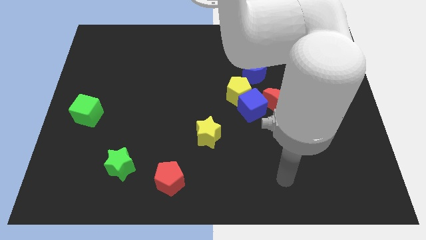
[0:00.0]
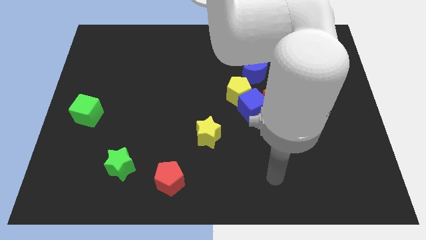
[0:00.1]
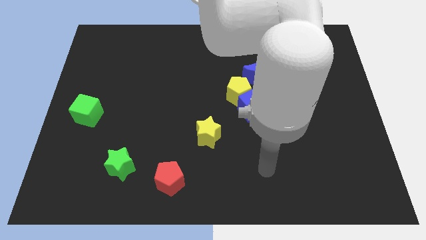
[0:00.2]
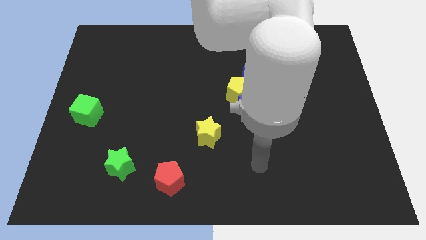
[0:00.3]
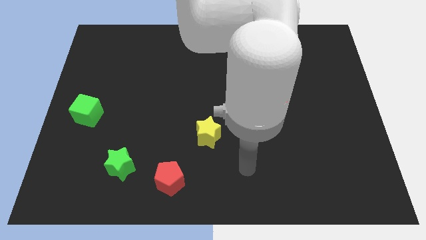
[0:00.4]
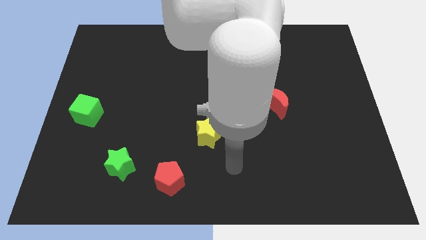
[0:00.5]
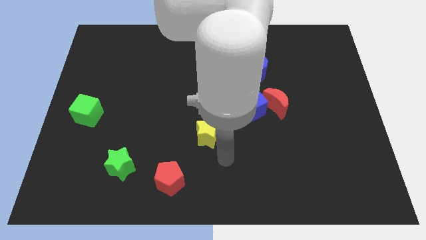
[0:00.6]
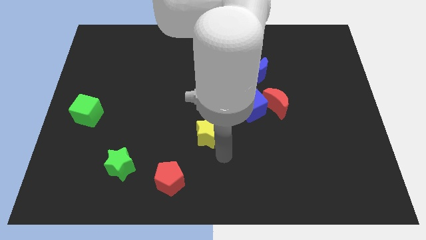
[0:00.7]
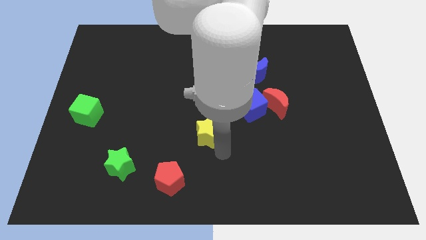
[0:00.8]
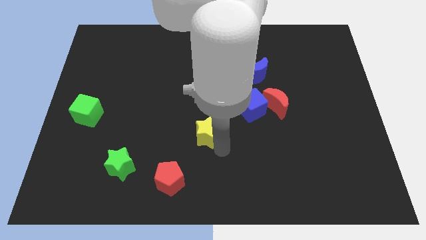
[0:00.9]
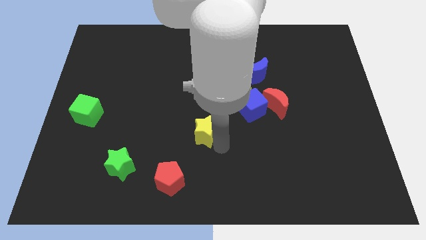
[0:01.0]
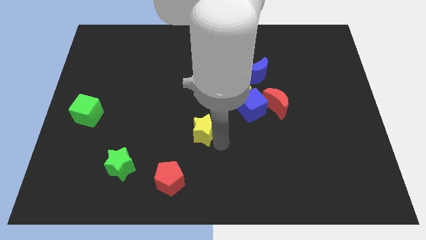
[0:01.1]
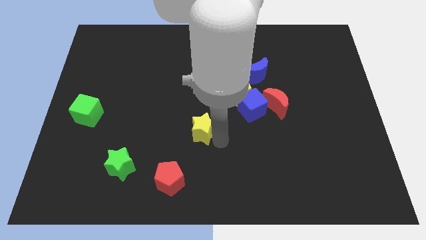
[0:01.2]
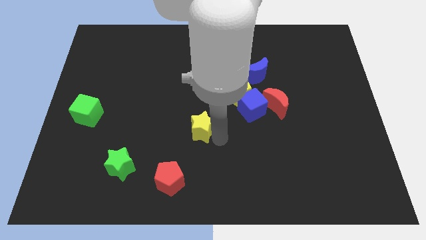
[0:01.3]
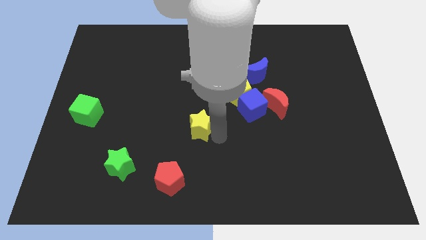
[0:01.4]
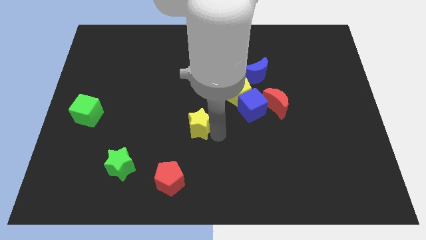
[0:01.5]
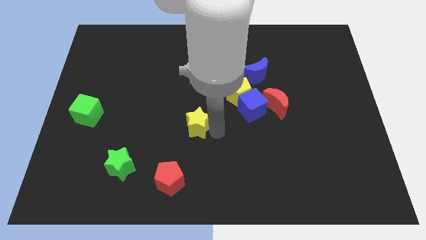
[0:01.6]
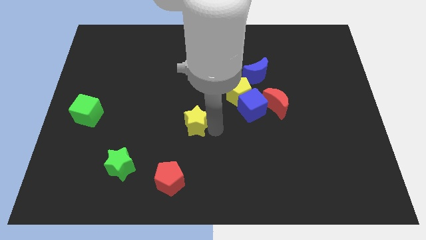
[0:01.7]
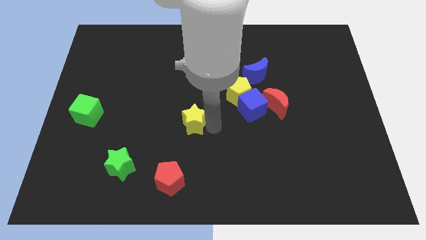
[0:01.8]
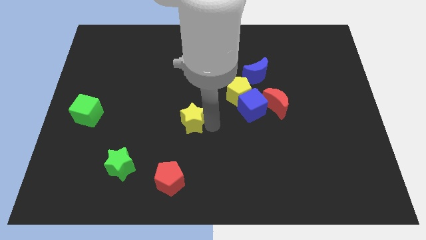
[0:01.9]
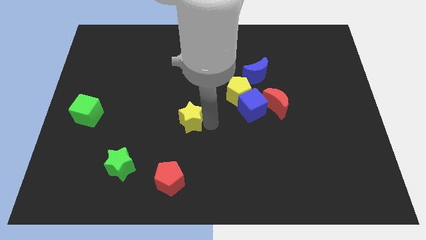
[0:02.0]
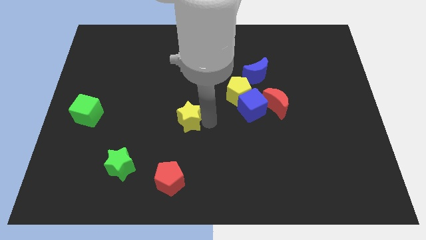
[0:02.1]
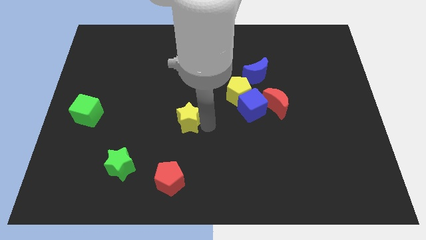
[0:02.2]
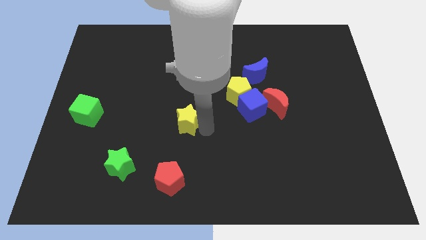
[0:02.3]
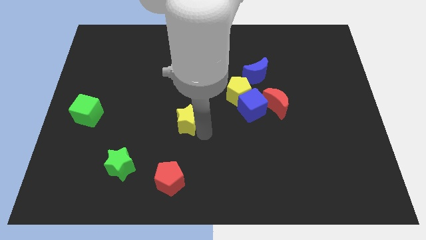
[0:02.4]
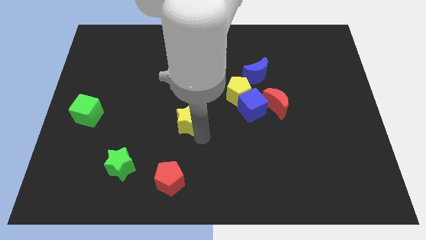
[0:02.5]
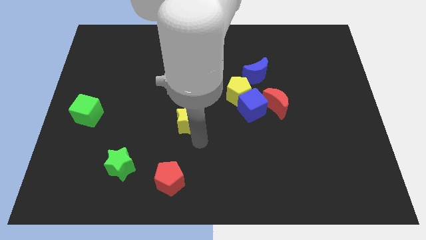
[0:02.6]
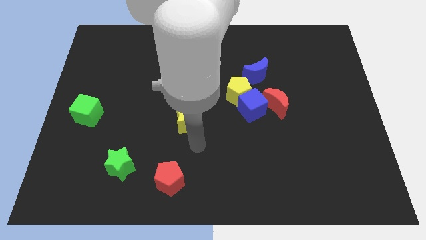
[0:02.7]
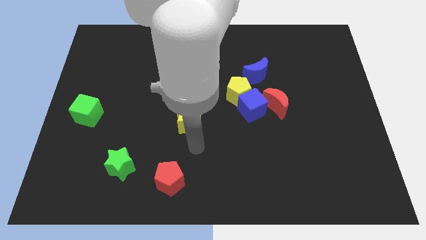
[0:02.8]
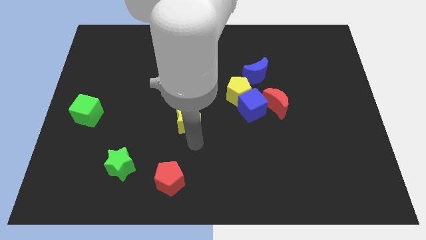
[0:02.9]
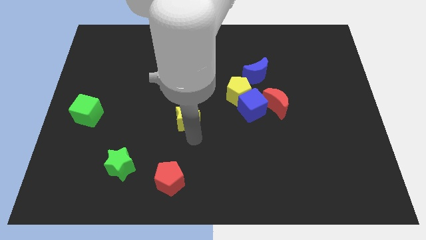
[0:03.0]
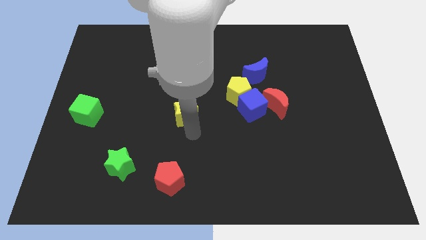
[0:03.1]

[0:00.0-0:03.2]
move the yellow star a little bit upwards and then left

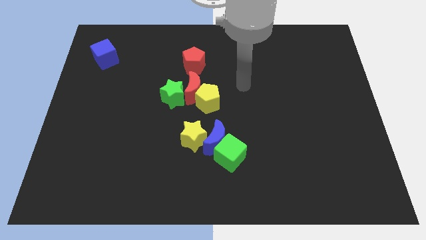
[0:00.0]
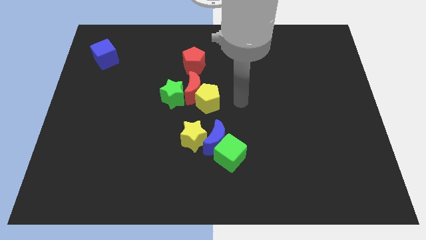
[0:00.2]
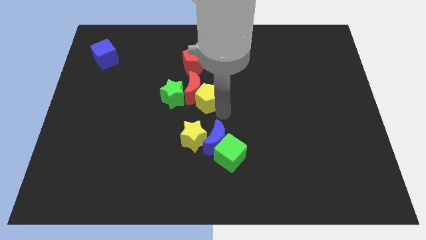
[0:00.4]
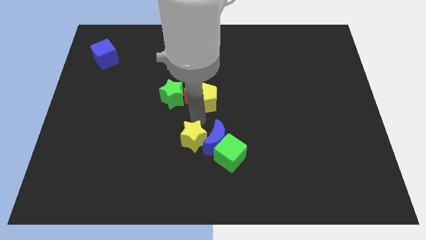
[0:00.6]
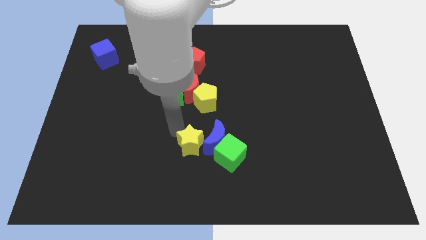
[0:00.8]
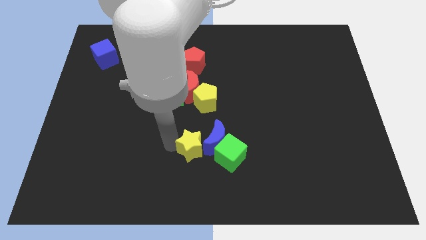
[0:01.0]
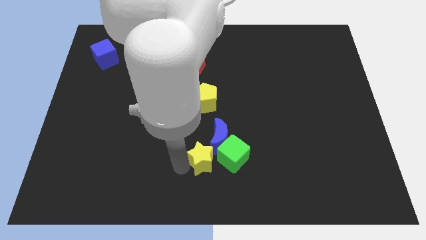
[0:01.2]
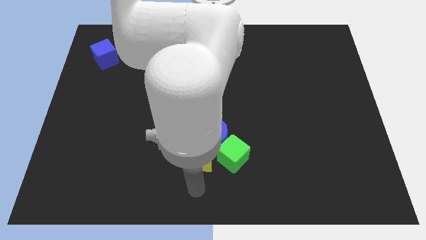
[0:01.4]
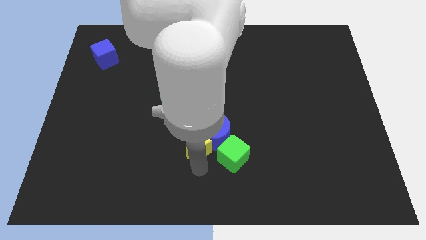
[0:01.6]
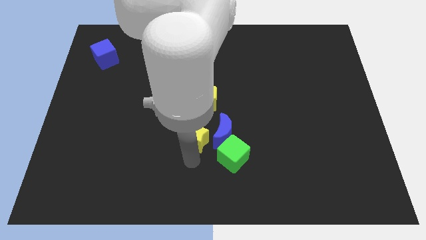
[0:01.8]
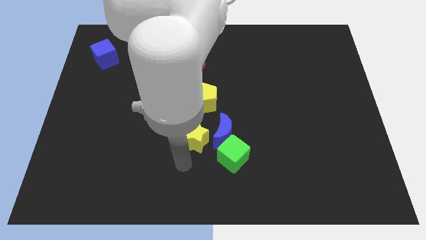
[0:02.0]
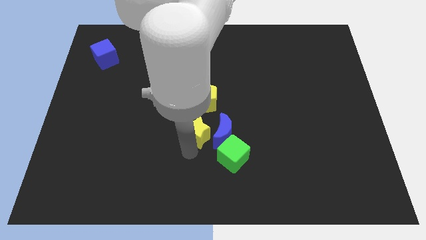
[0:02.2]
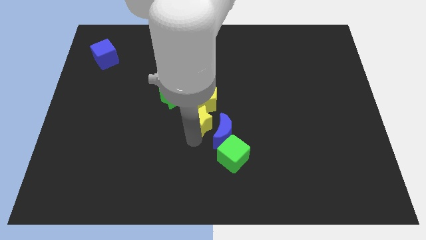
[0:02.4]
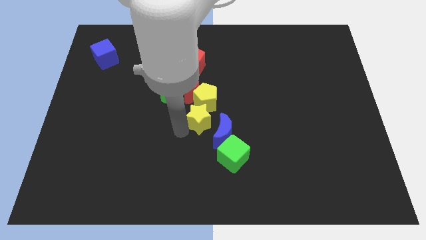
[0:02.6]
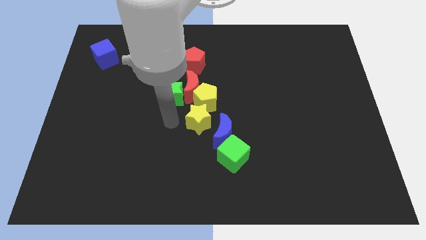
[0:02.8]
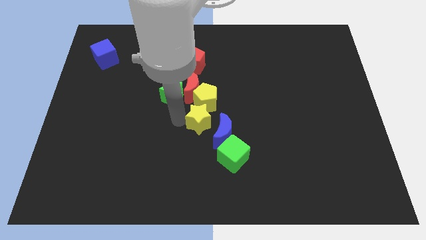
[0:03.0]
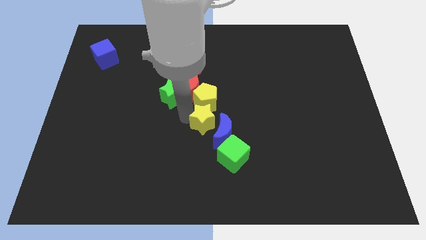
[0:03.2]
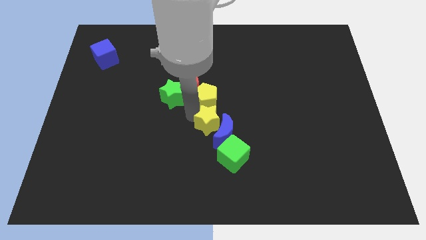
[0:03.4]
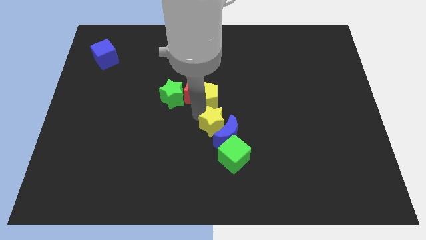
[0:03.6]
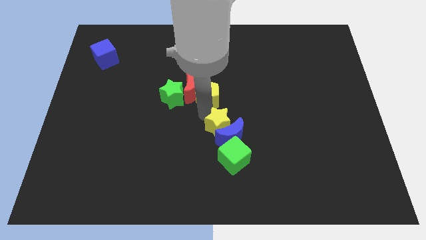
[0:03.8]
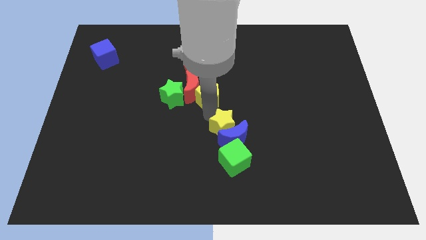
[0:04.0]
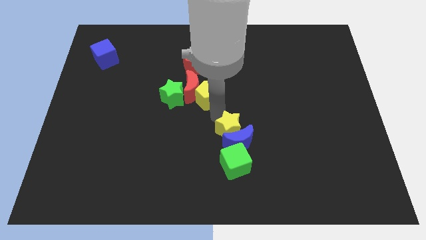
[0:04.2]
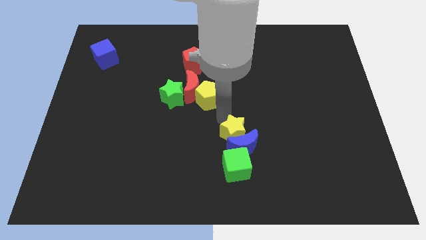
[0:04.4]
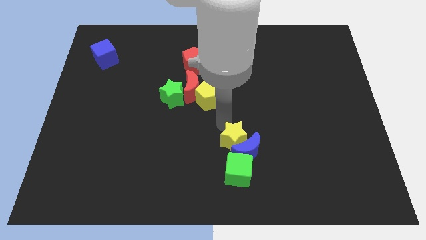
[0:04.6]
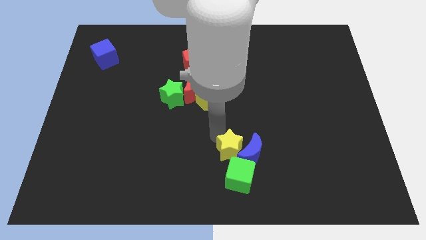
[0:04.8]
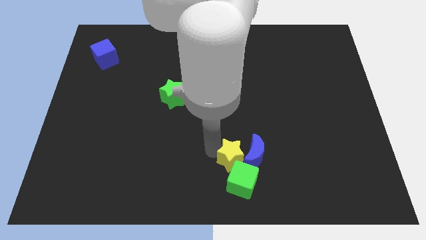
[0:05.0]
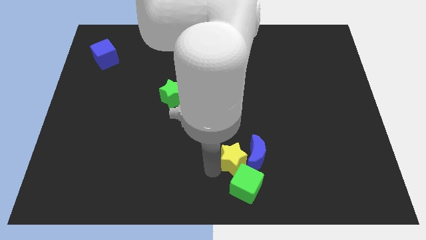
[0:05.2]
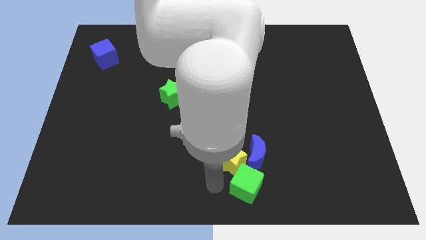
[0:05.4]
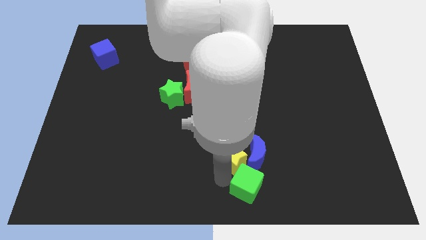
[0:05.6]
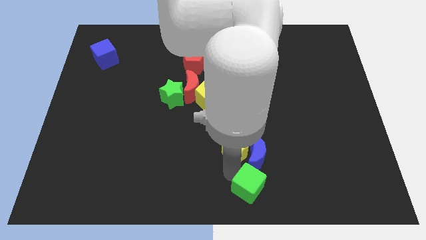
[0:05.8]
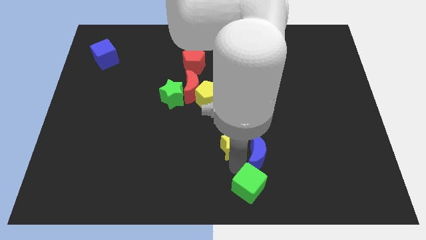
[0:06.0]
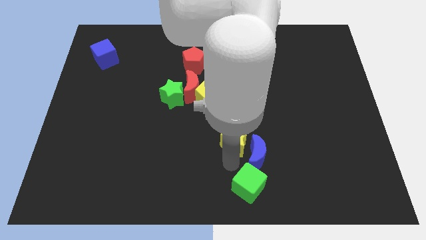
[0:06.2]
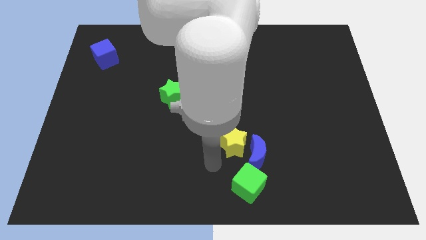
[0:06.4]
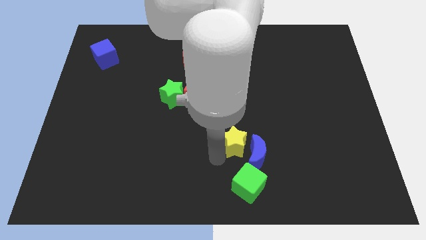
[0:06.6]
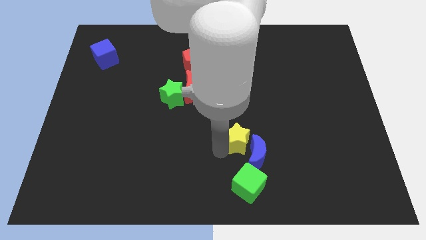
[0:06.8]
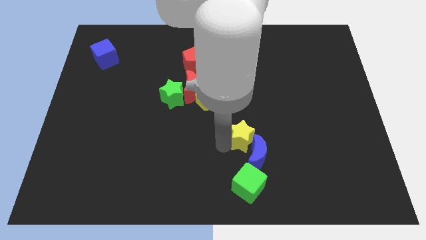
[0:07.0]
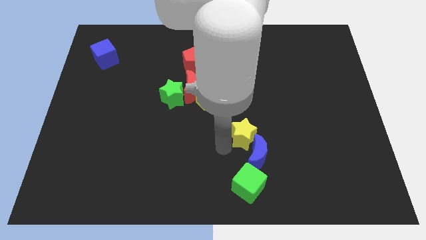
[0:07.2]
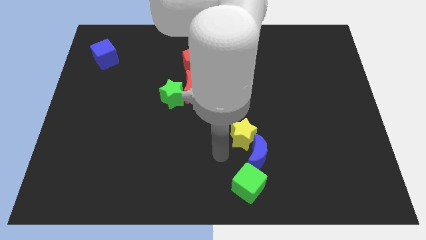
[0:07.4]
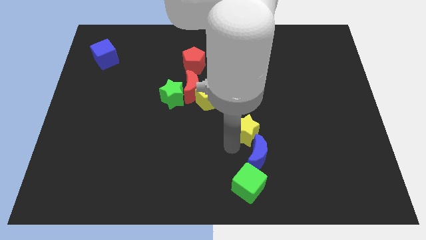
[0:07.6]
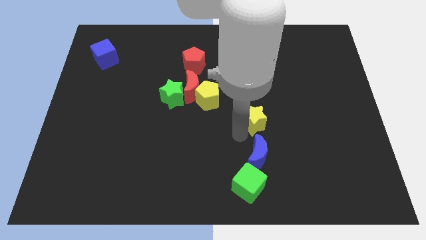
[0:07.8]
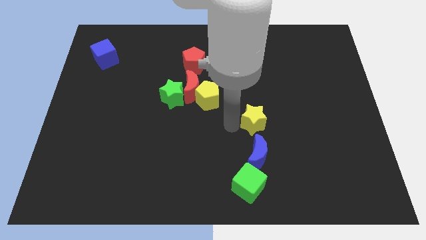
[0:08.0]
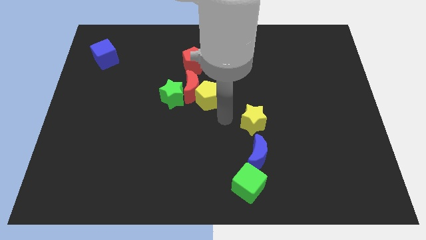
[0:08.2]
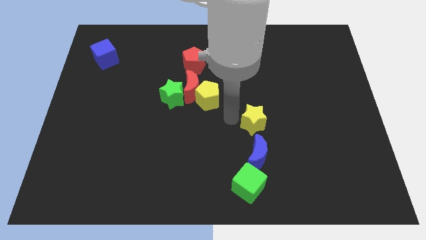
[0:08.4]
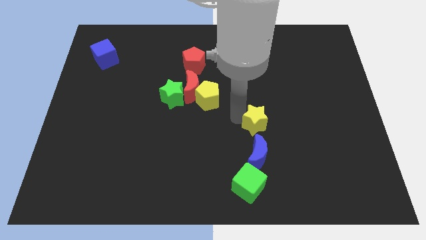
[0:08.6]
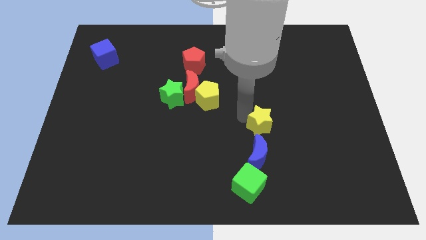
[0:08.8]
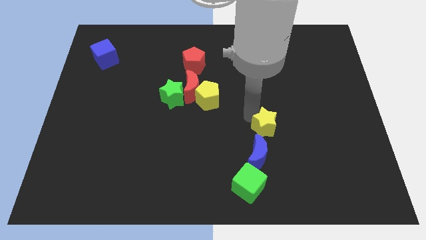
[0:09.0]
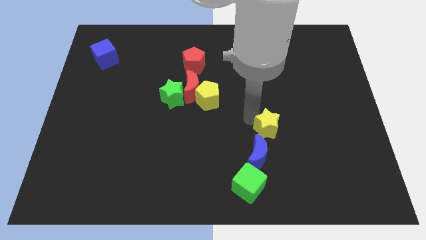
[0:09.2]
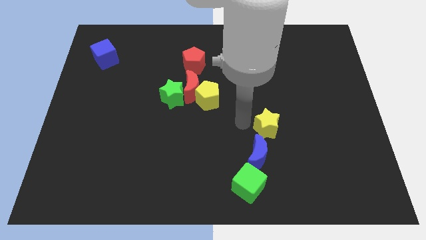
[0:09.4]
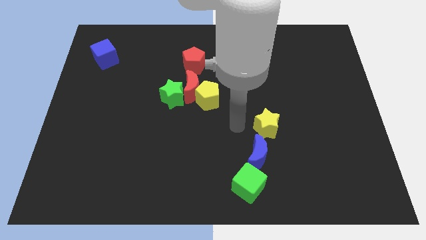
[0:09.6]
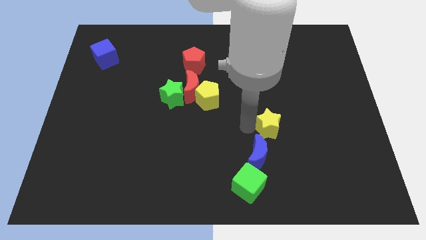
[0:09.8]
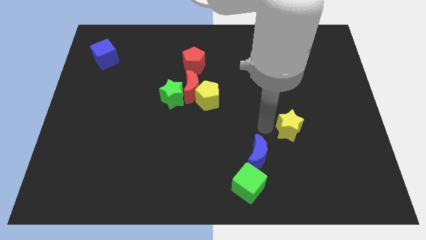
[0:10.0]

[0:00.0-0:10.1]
move the yellow star to the right
